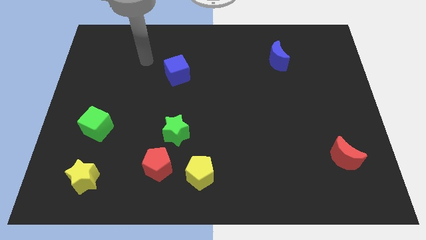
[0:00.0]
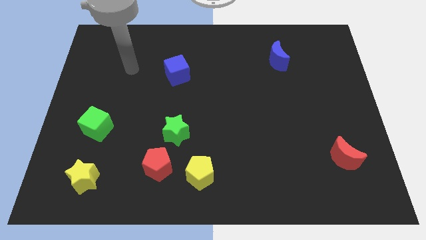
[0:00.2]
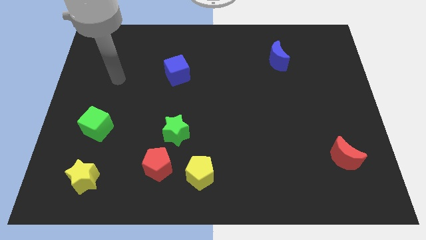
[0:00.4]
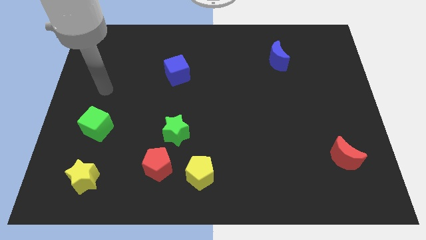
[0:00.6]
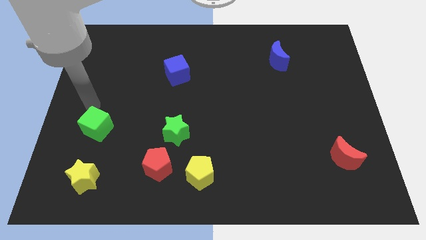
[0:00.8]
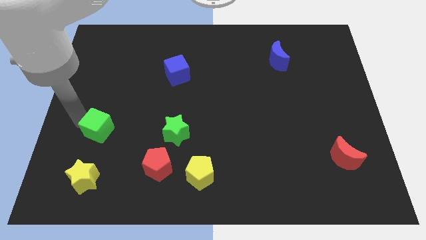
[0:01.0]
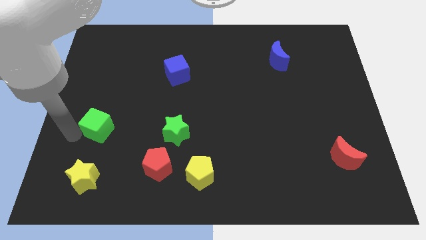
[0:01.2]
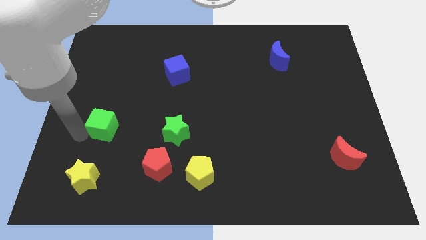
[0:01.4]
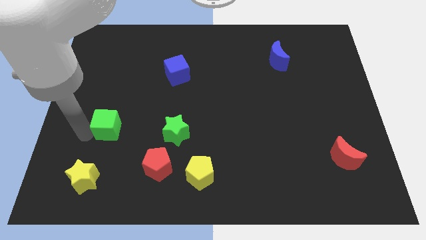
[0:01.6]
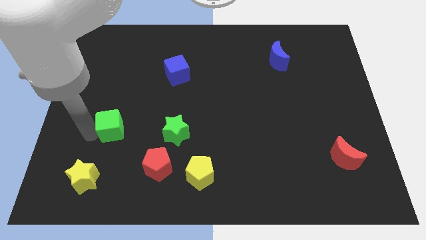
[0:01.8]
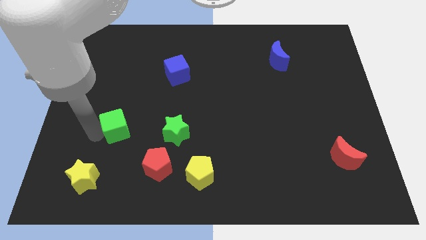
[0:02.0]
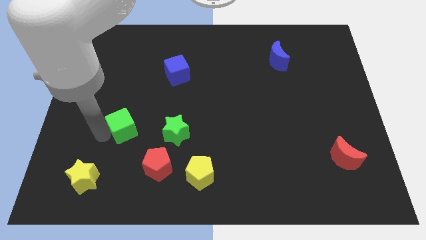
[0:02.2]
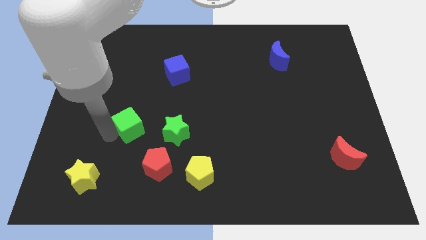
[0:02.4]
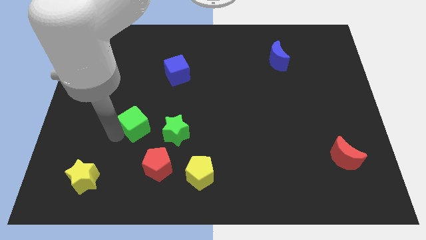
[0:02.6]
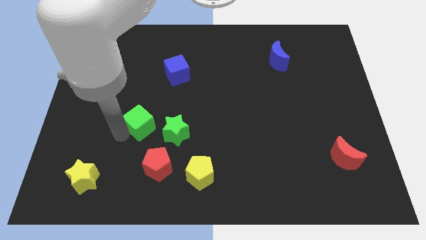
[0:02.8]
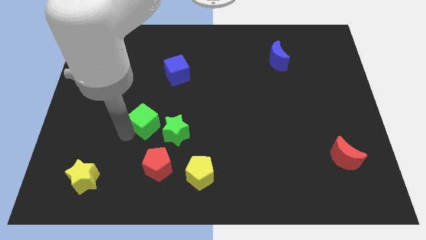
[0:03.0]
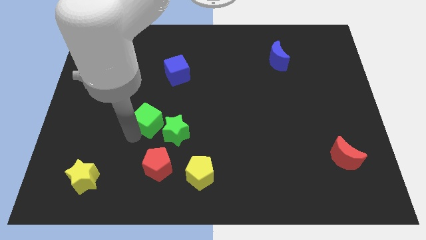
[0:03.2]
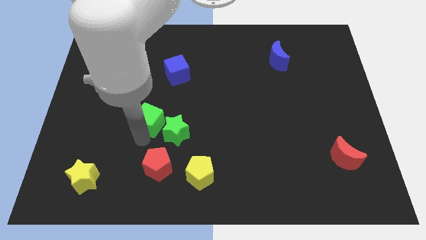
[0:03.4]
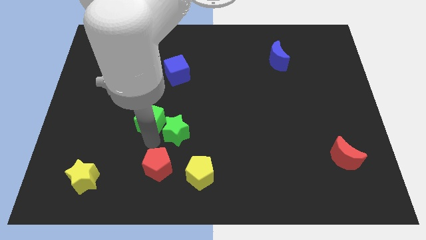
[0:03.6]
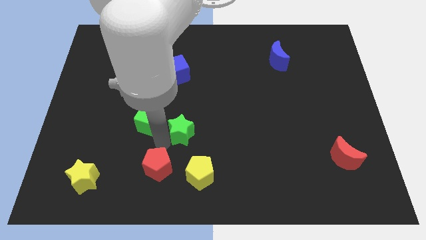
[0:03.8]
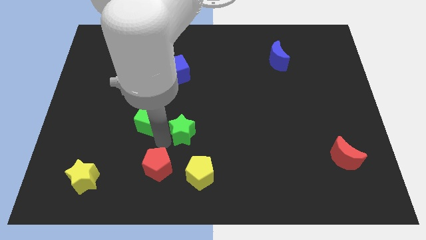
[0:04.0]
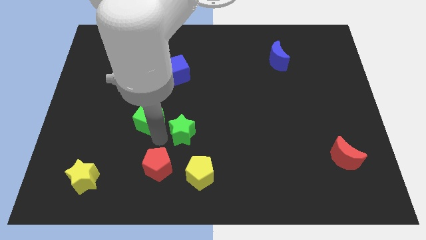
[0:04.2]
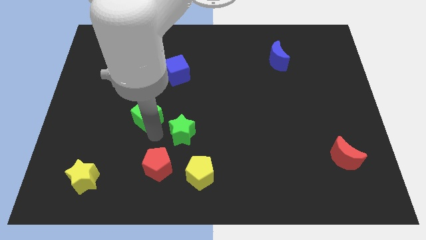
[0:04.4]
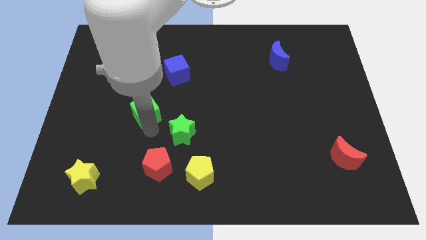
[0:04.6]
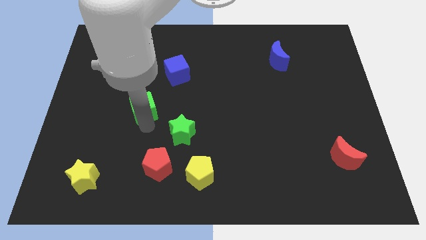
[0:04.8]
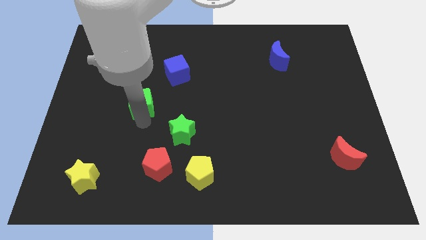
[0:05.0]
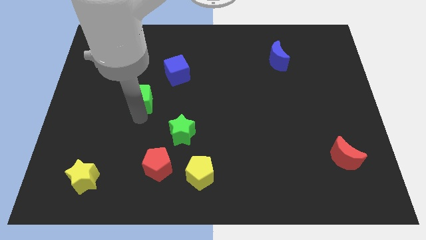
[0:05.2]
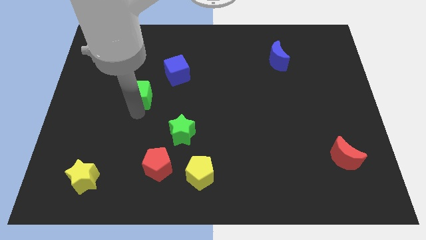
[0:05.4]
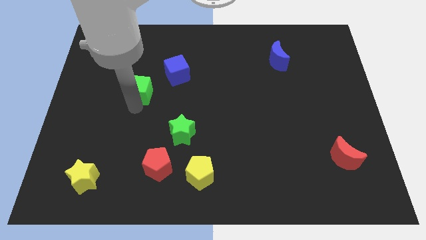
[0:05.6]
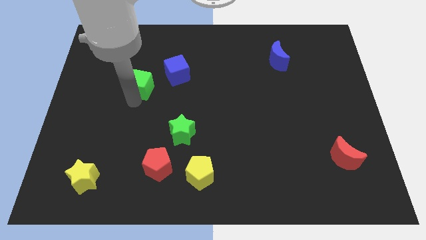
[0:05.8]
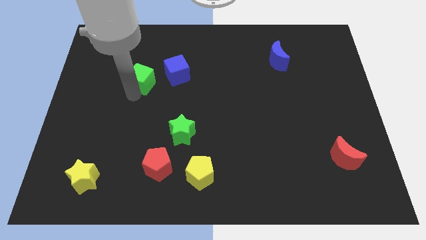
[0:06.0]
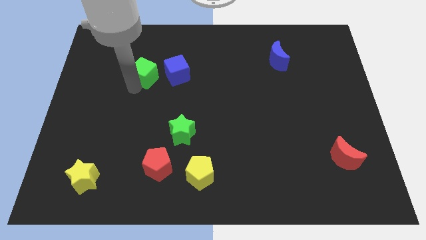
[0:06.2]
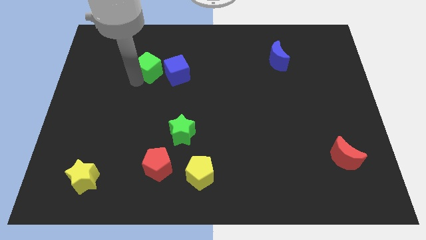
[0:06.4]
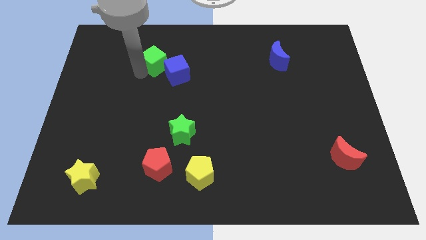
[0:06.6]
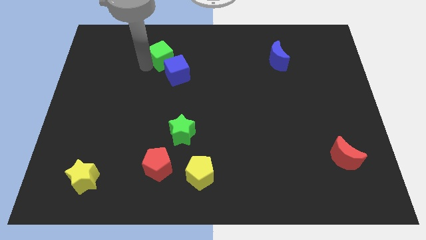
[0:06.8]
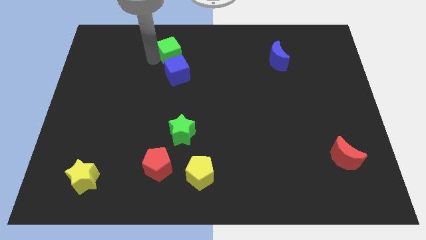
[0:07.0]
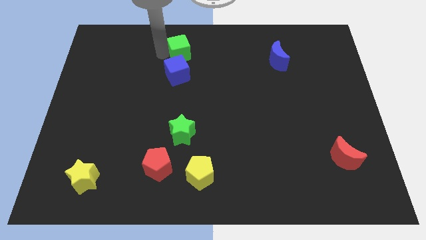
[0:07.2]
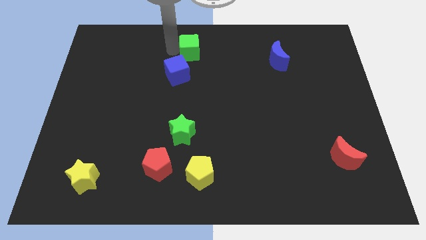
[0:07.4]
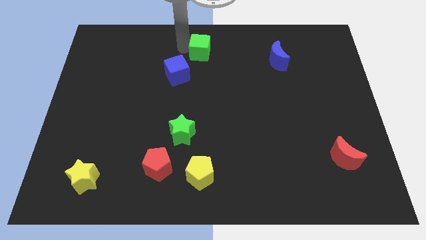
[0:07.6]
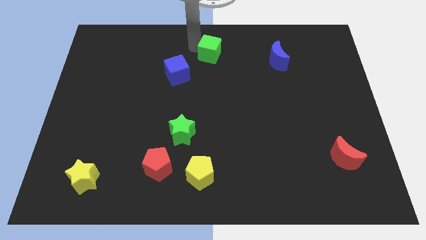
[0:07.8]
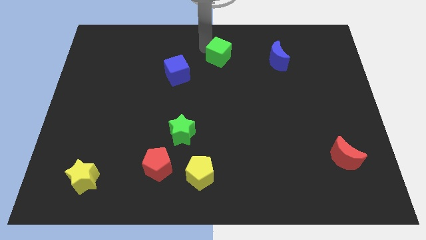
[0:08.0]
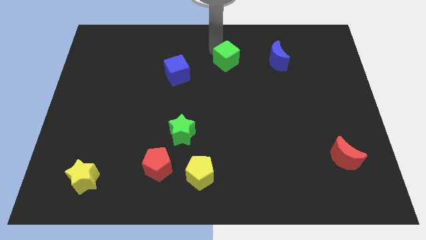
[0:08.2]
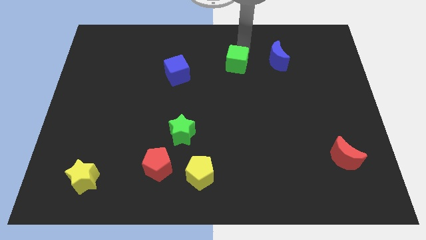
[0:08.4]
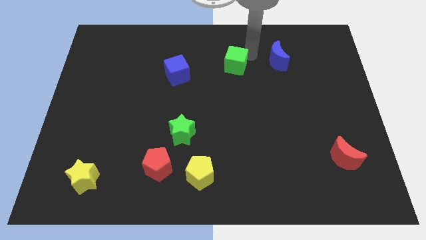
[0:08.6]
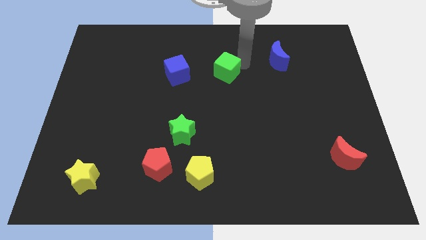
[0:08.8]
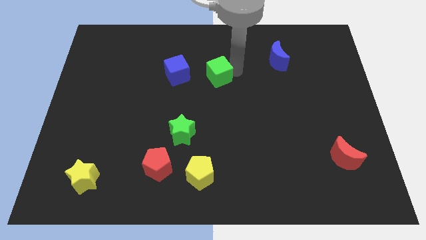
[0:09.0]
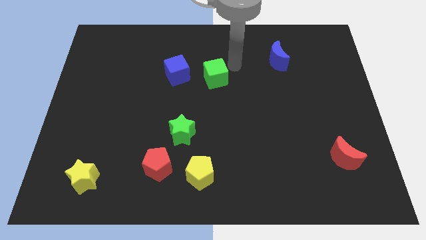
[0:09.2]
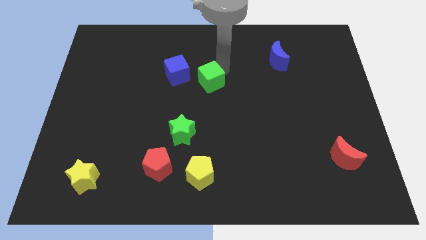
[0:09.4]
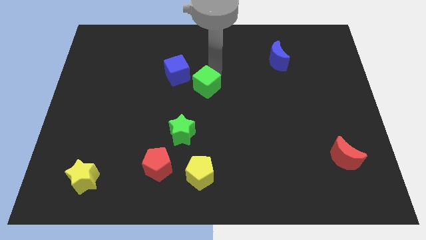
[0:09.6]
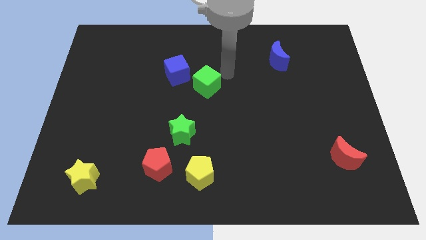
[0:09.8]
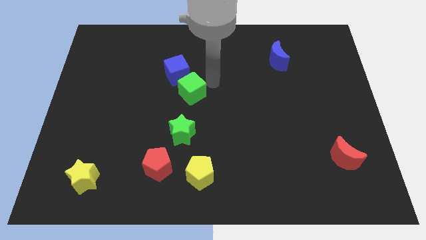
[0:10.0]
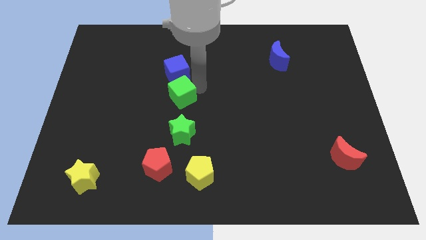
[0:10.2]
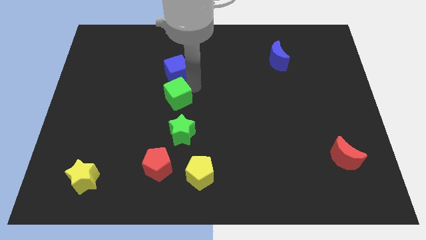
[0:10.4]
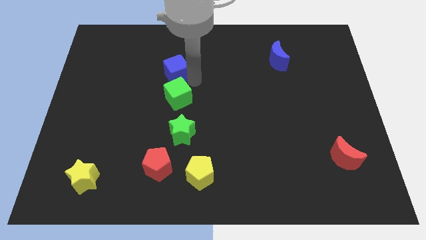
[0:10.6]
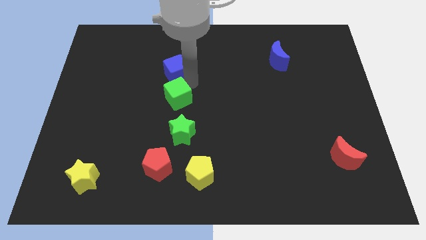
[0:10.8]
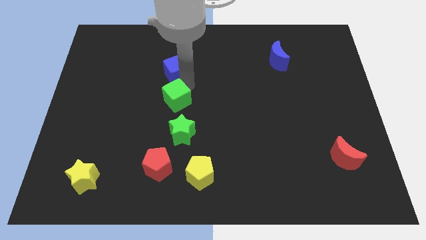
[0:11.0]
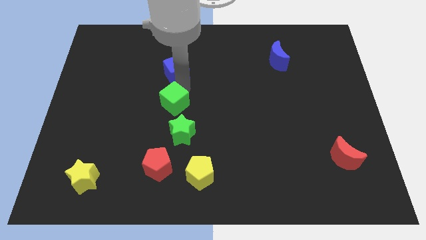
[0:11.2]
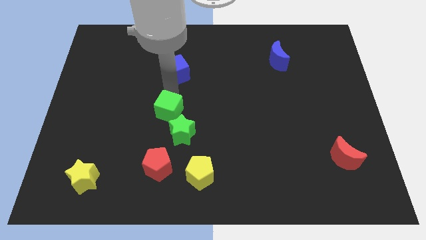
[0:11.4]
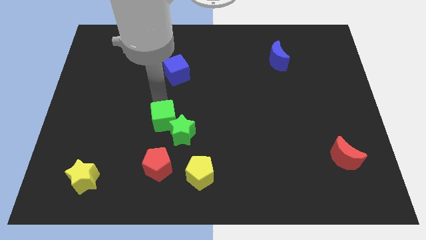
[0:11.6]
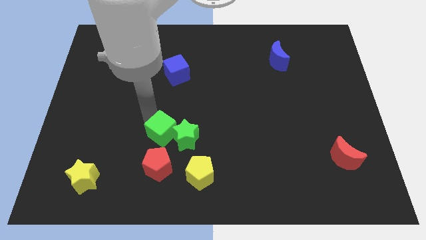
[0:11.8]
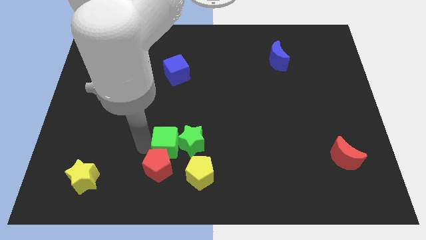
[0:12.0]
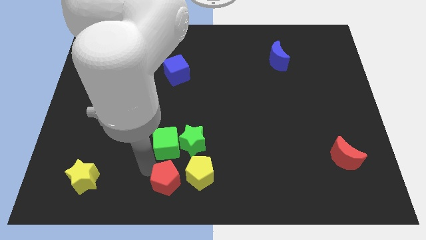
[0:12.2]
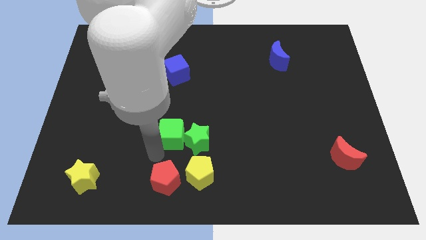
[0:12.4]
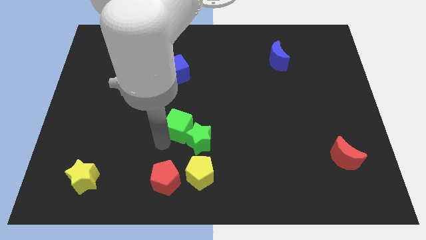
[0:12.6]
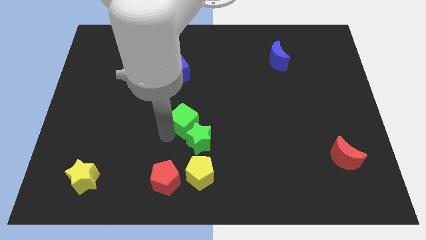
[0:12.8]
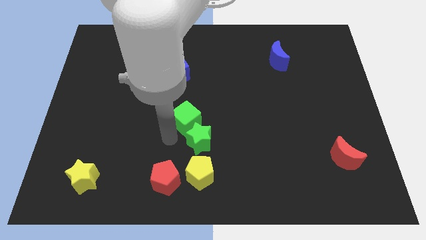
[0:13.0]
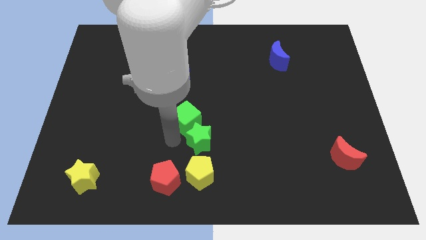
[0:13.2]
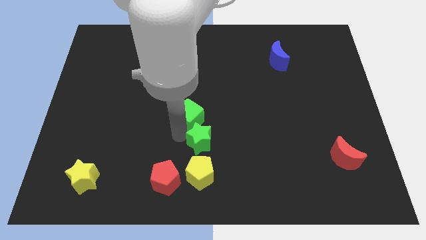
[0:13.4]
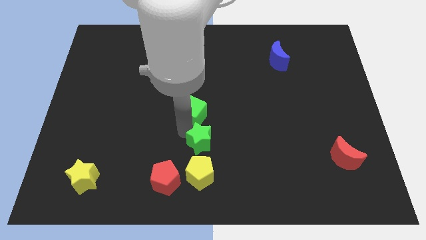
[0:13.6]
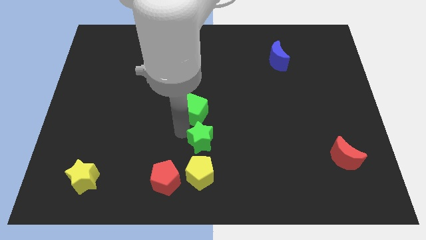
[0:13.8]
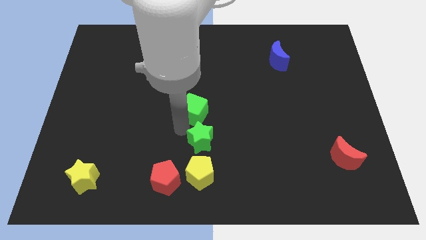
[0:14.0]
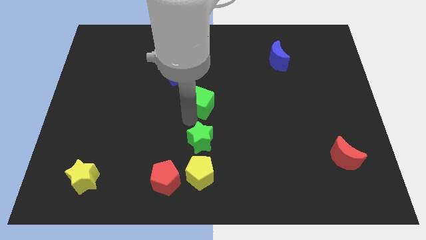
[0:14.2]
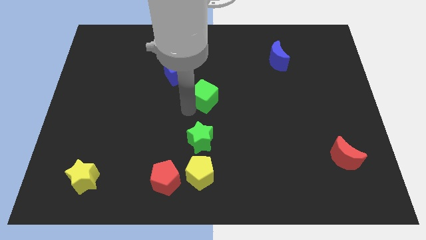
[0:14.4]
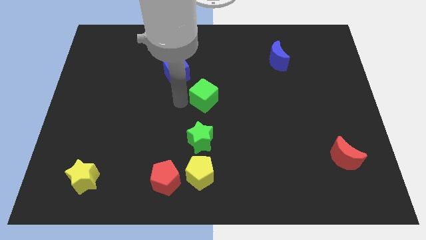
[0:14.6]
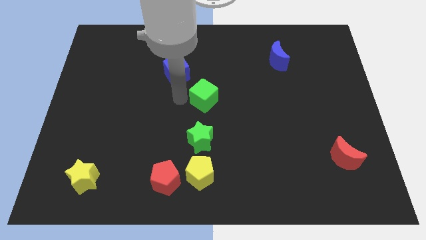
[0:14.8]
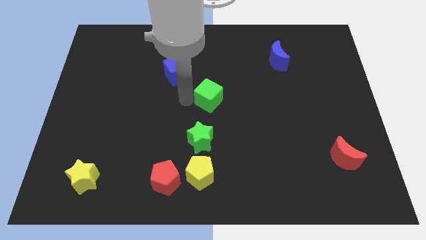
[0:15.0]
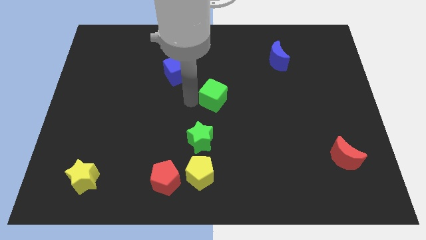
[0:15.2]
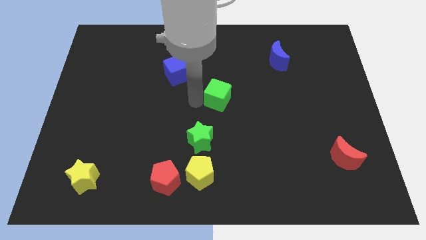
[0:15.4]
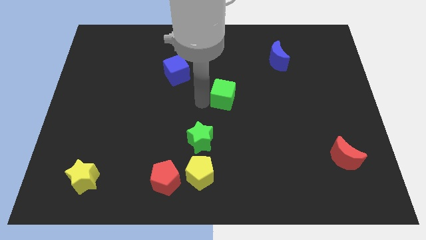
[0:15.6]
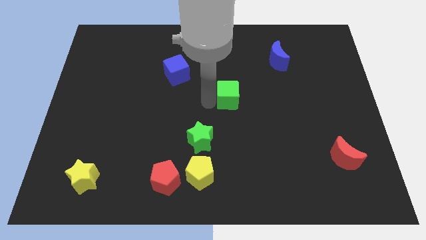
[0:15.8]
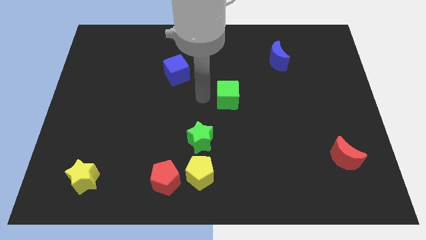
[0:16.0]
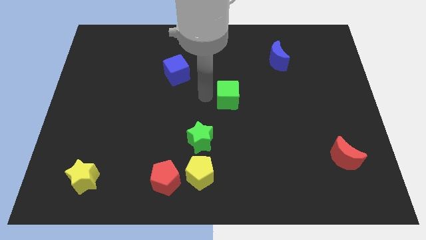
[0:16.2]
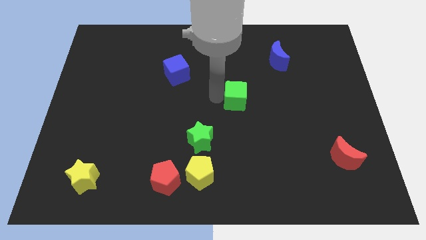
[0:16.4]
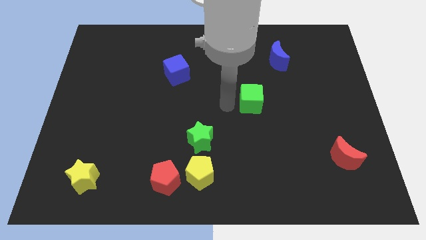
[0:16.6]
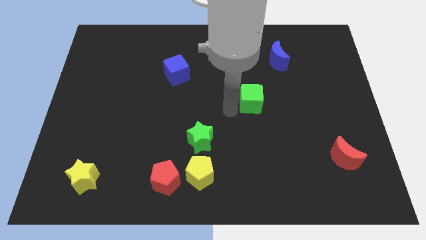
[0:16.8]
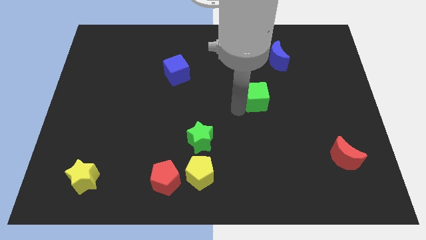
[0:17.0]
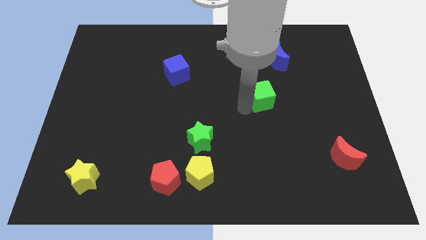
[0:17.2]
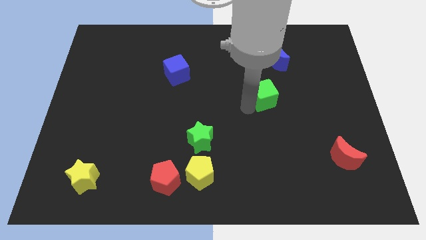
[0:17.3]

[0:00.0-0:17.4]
put the green cube to the bottom side of the blue moon
